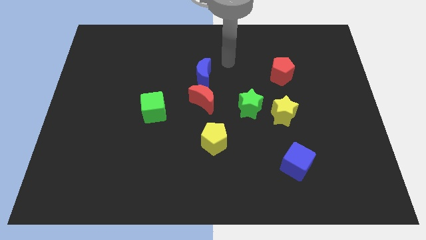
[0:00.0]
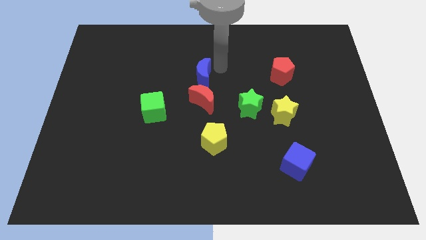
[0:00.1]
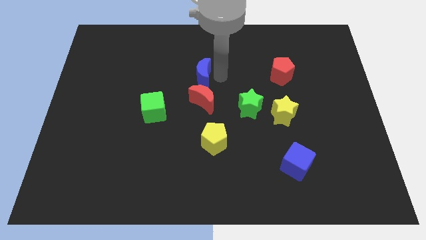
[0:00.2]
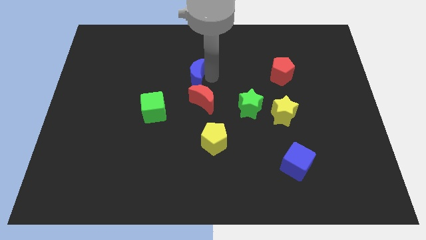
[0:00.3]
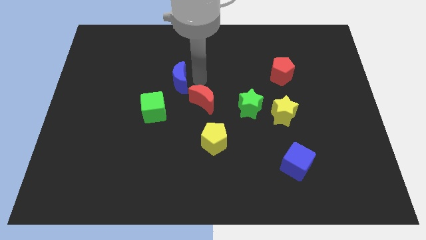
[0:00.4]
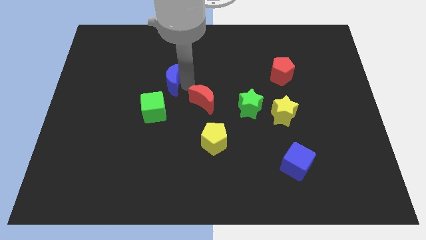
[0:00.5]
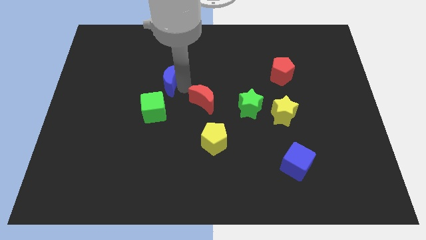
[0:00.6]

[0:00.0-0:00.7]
separate the red moon from the blue moon

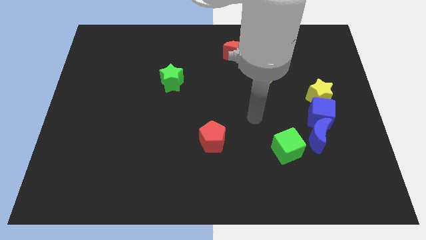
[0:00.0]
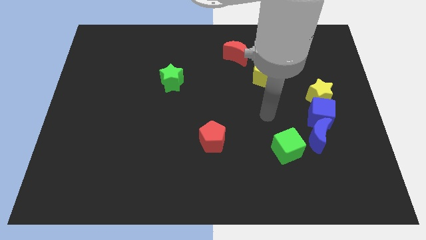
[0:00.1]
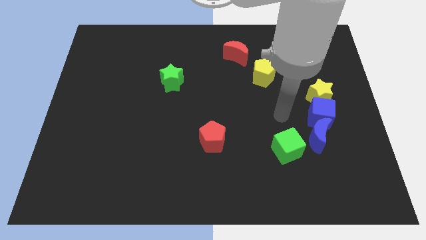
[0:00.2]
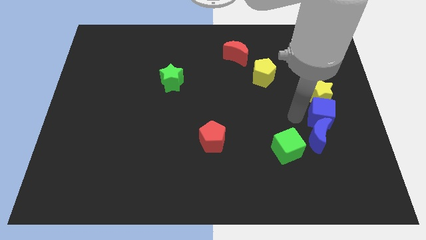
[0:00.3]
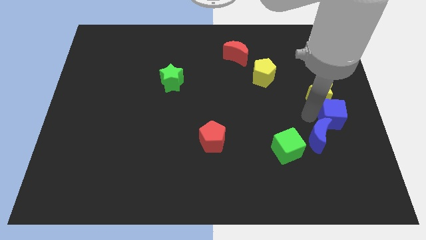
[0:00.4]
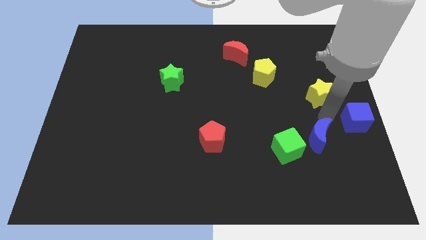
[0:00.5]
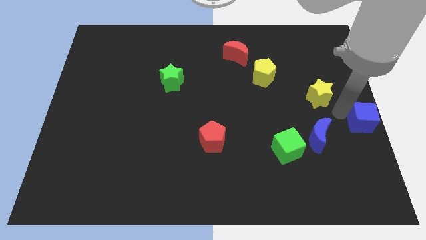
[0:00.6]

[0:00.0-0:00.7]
move the yellow star away from the blue cube

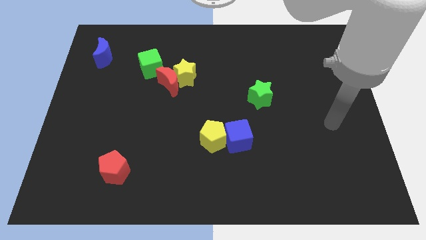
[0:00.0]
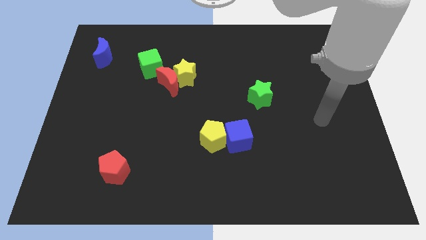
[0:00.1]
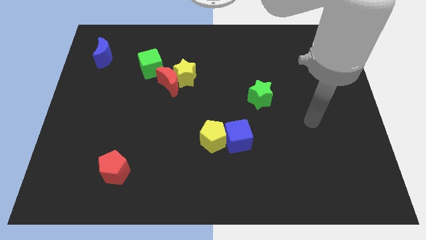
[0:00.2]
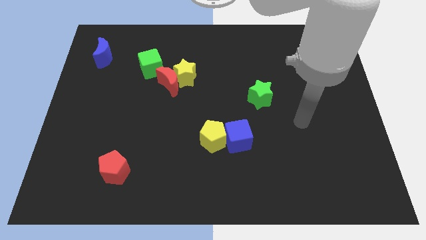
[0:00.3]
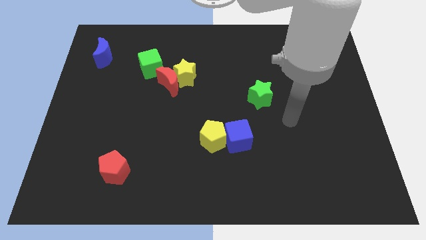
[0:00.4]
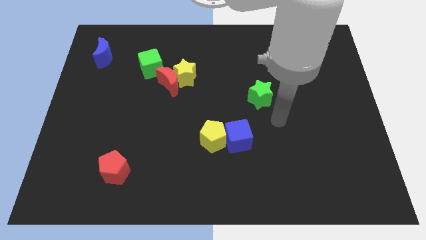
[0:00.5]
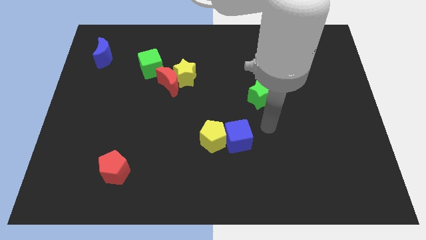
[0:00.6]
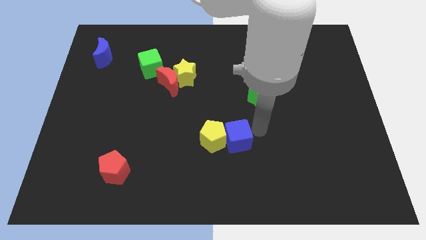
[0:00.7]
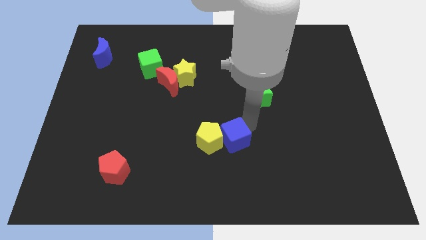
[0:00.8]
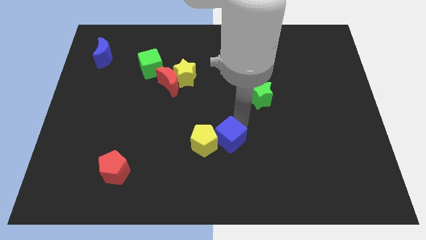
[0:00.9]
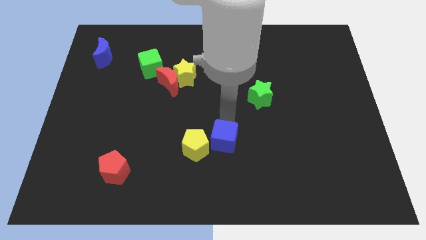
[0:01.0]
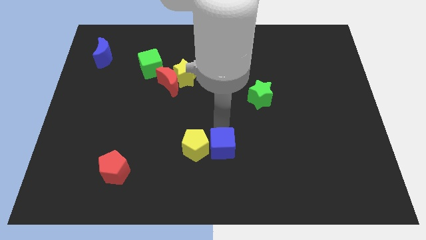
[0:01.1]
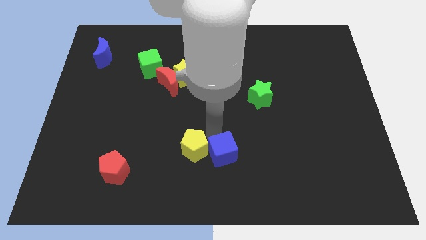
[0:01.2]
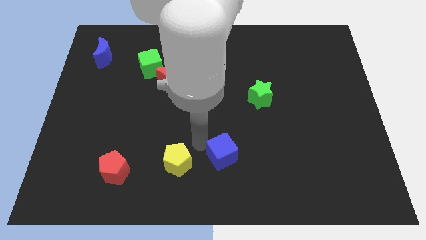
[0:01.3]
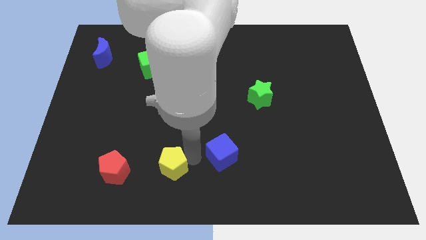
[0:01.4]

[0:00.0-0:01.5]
separate the blue cube from the yellow pentagon

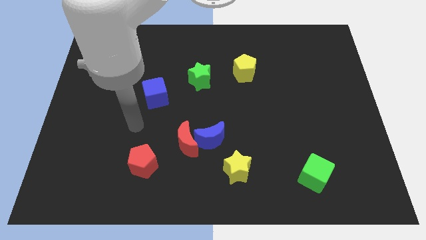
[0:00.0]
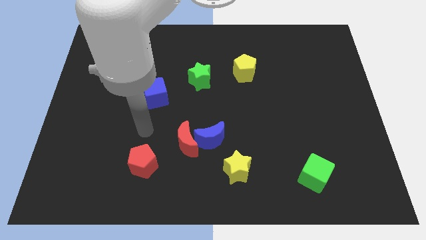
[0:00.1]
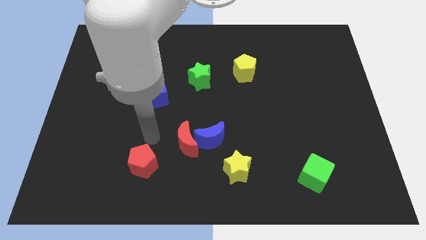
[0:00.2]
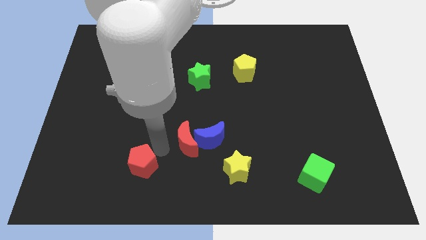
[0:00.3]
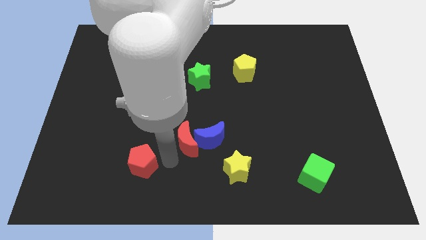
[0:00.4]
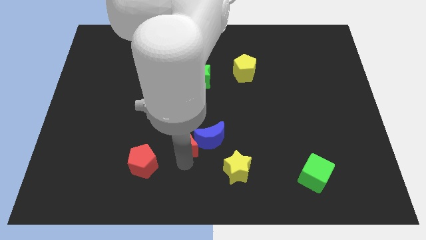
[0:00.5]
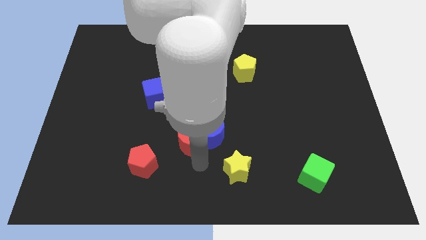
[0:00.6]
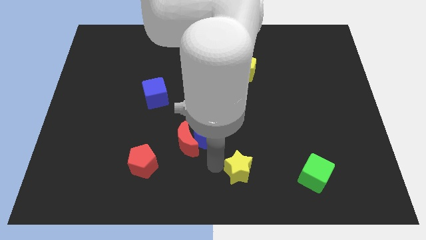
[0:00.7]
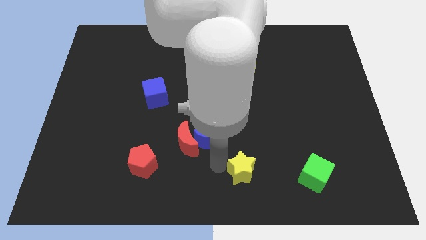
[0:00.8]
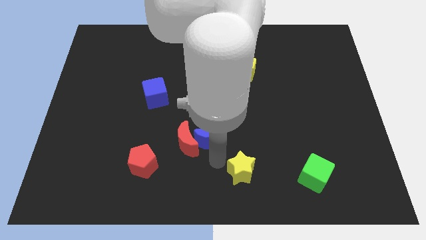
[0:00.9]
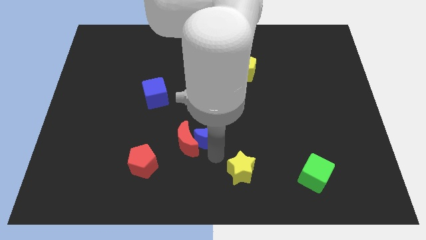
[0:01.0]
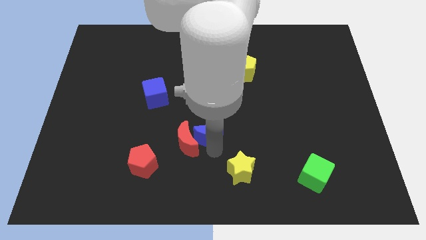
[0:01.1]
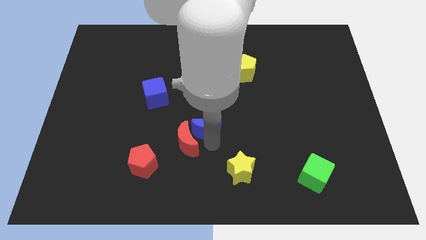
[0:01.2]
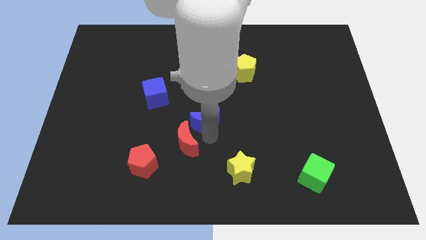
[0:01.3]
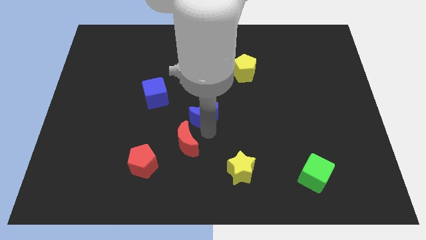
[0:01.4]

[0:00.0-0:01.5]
move the blue moon away from the red moon and yellow star

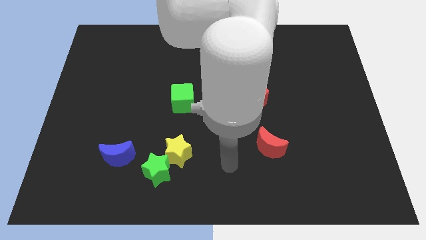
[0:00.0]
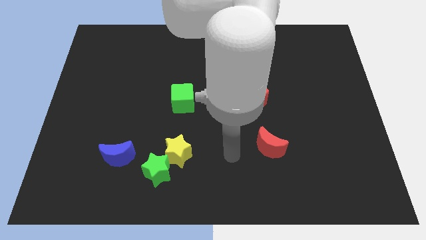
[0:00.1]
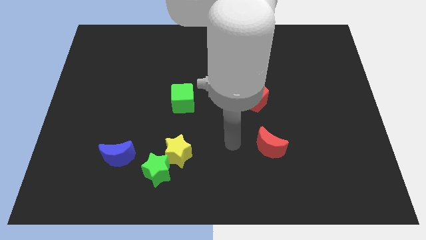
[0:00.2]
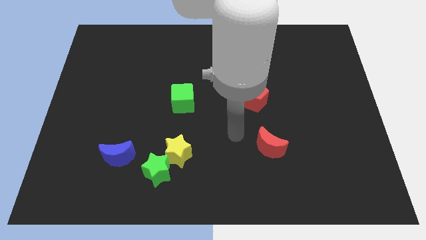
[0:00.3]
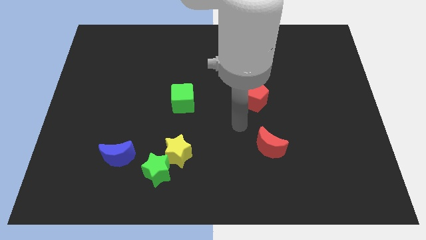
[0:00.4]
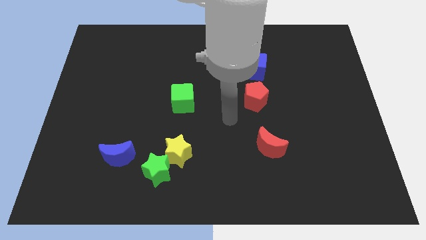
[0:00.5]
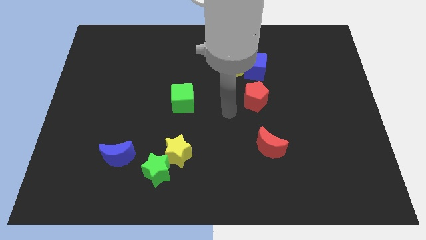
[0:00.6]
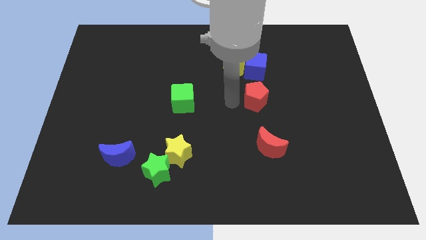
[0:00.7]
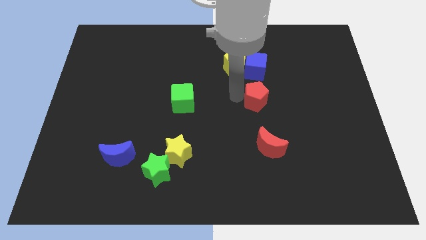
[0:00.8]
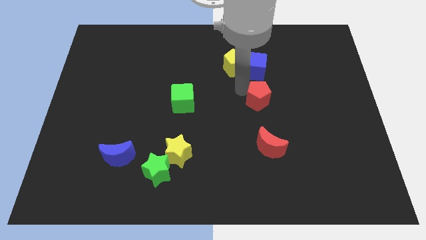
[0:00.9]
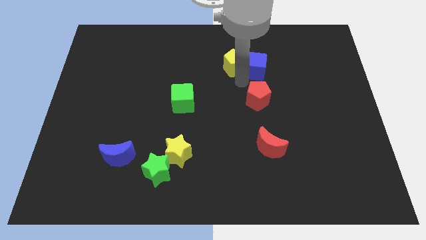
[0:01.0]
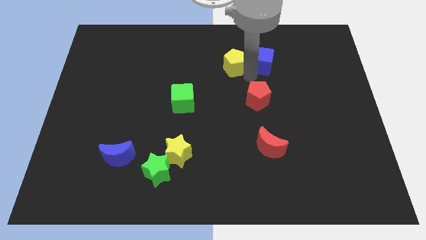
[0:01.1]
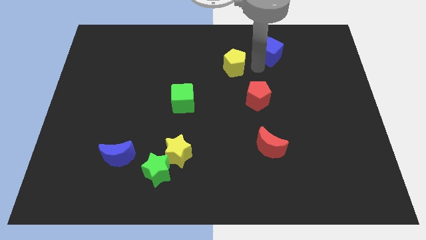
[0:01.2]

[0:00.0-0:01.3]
pull the yellow pentagon apart from the blue cube

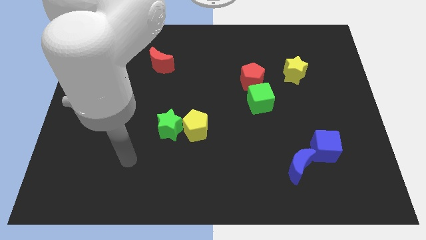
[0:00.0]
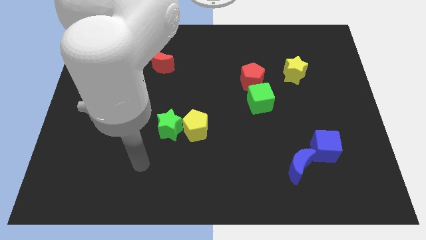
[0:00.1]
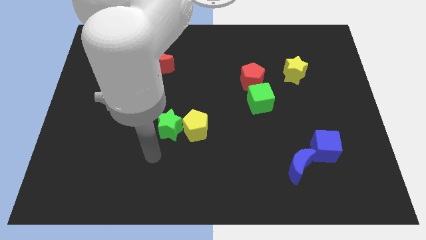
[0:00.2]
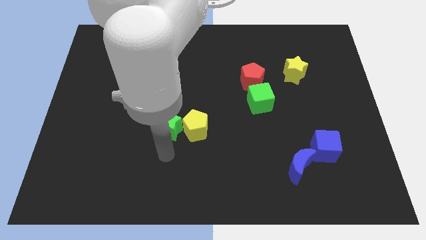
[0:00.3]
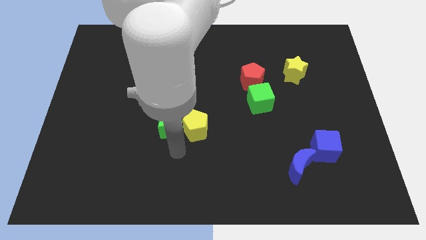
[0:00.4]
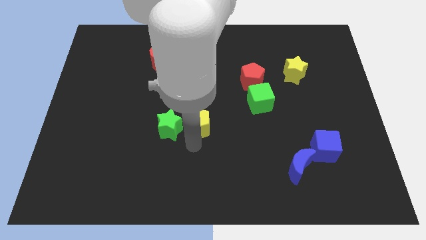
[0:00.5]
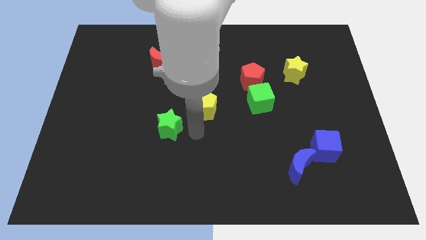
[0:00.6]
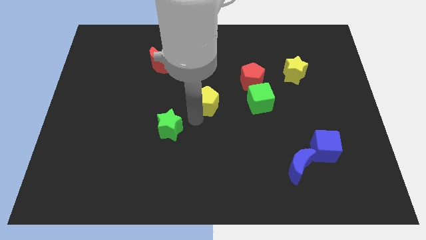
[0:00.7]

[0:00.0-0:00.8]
move the green star away from the yellow pentagon

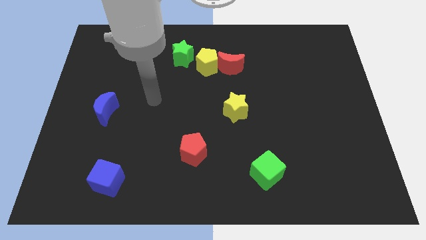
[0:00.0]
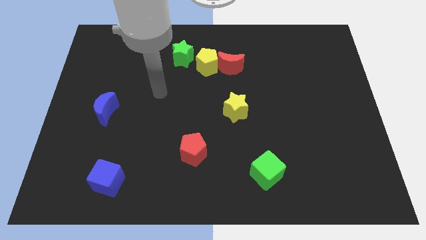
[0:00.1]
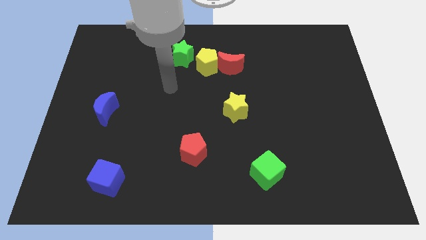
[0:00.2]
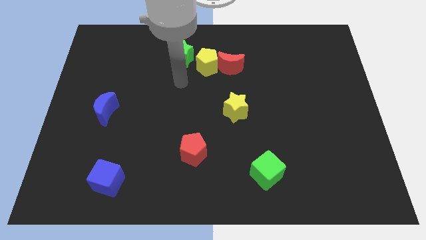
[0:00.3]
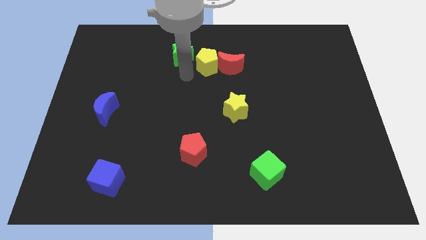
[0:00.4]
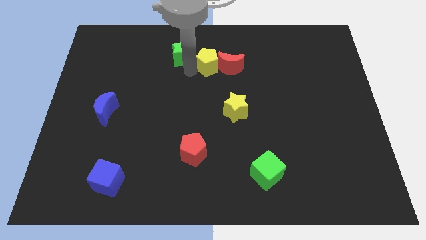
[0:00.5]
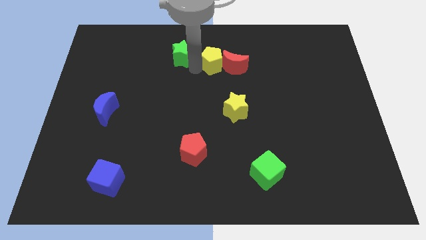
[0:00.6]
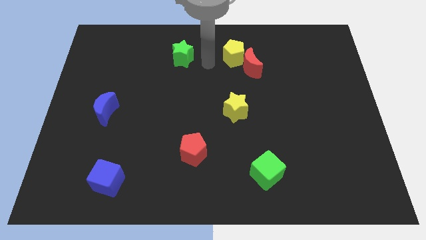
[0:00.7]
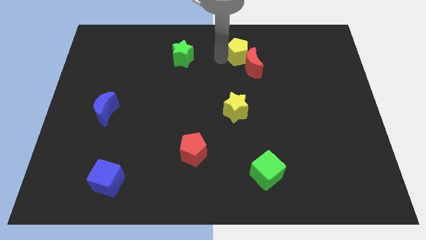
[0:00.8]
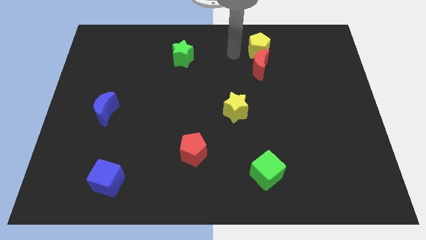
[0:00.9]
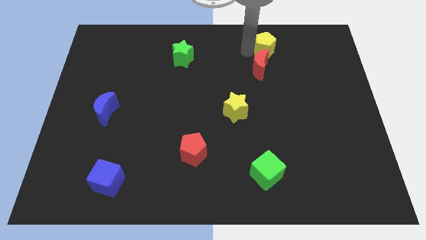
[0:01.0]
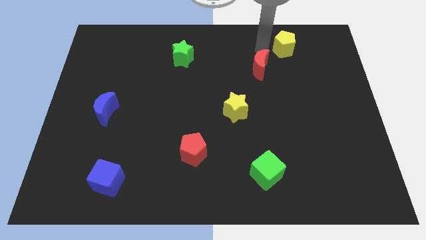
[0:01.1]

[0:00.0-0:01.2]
separate the red moon from the yellow pentagon

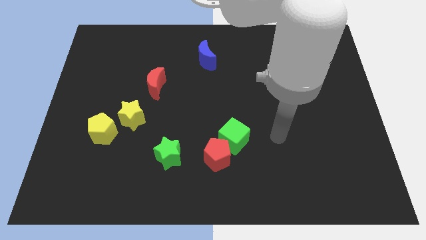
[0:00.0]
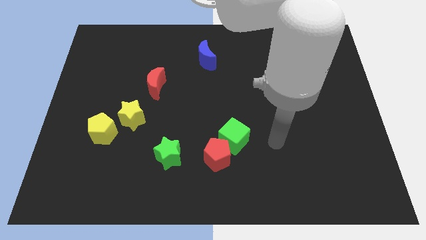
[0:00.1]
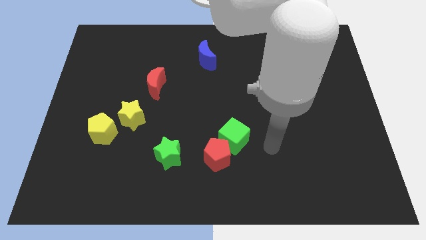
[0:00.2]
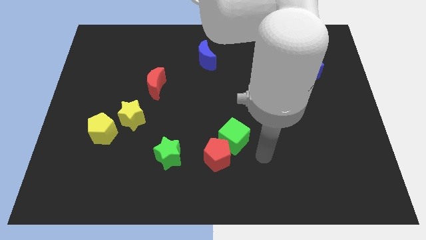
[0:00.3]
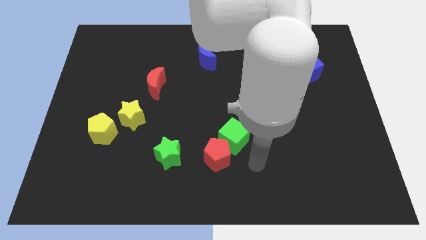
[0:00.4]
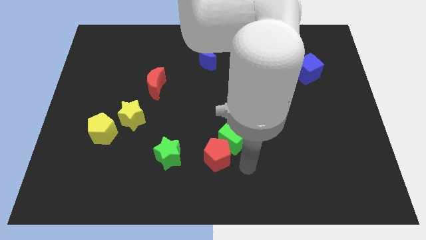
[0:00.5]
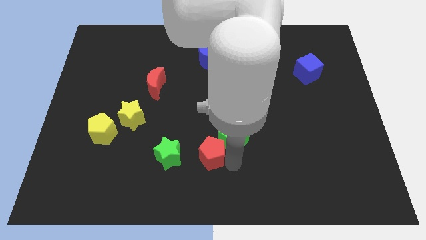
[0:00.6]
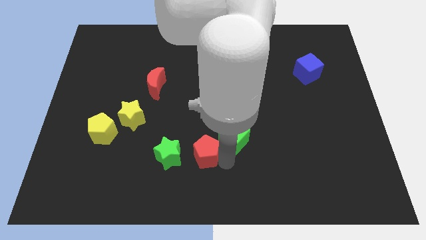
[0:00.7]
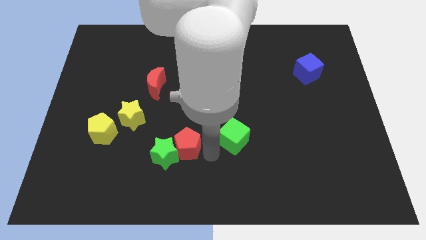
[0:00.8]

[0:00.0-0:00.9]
pull the green cube apart from the red pentagon

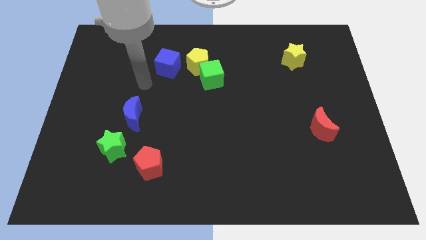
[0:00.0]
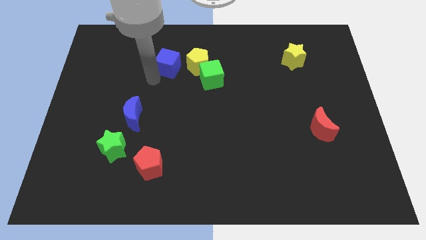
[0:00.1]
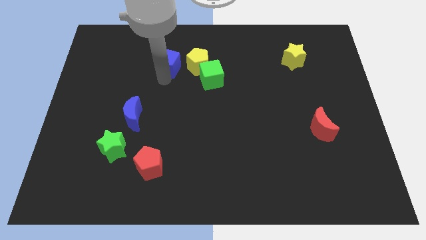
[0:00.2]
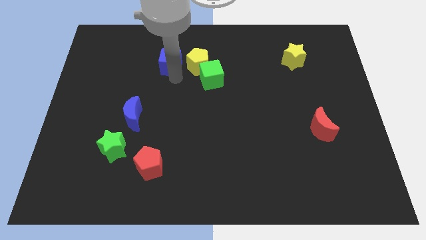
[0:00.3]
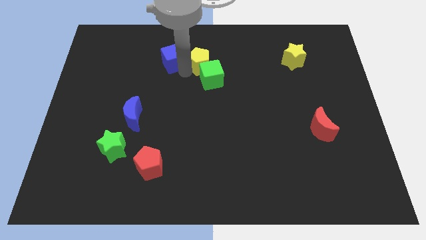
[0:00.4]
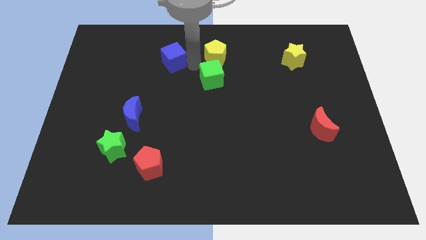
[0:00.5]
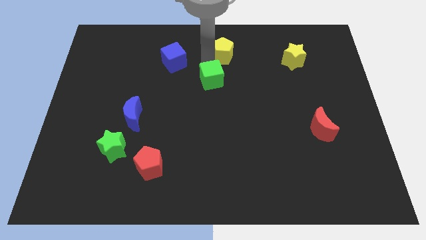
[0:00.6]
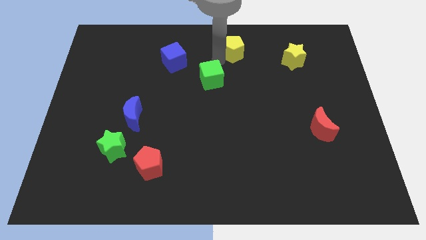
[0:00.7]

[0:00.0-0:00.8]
separate the green cube from the yellow pentagon
